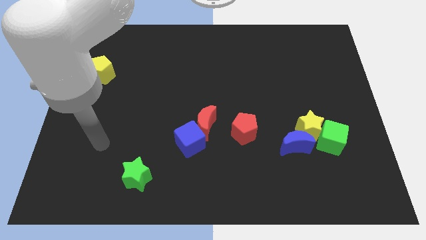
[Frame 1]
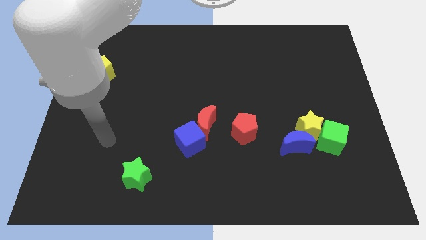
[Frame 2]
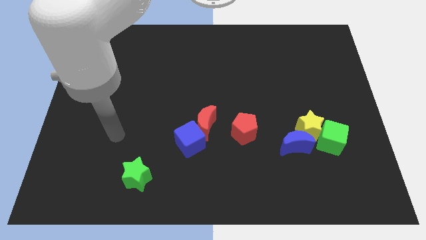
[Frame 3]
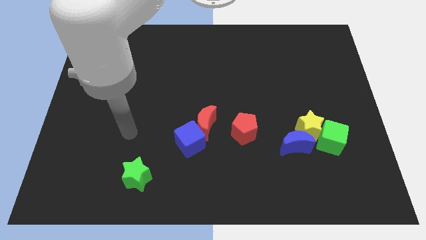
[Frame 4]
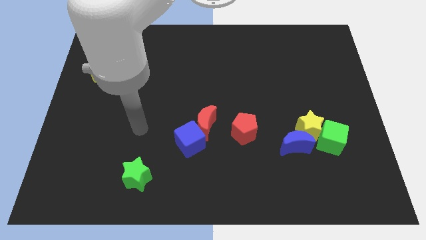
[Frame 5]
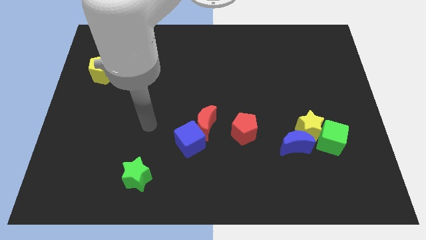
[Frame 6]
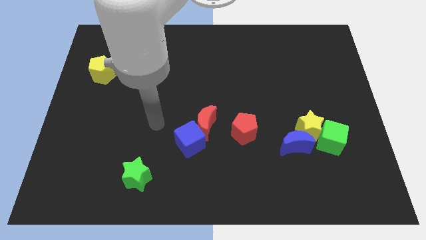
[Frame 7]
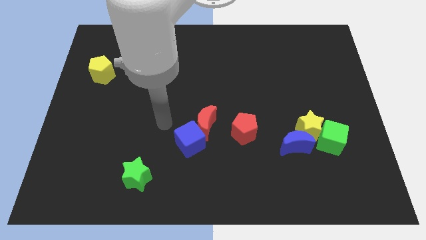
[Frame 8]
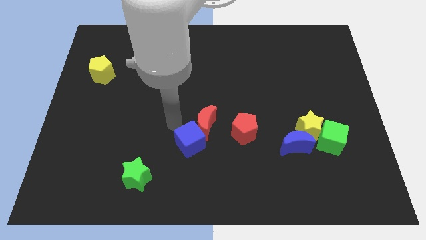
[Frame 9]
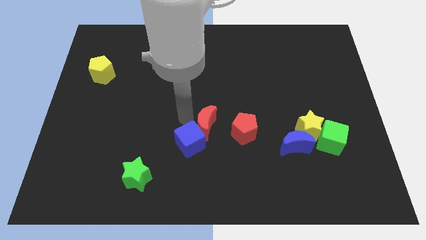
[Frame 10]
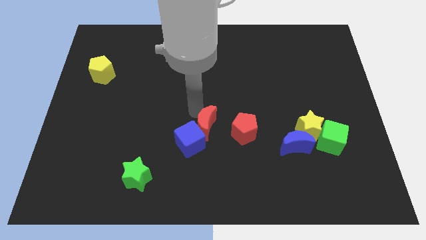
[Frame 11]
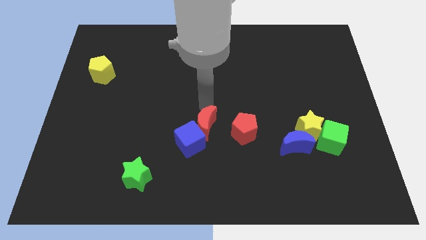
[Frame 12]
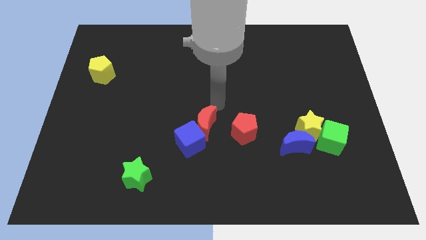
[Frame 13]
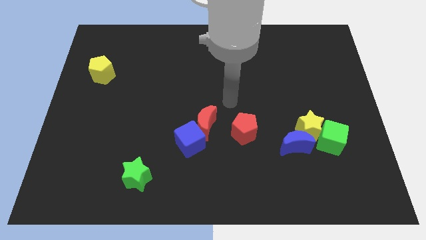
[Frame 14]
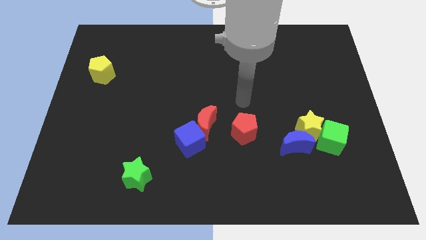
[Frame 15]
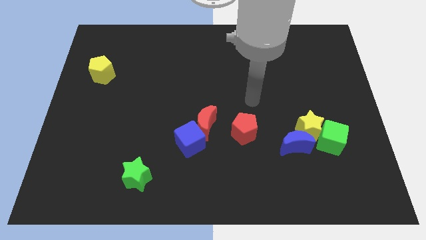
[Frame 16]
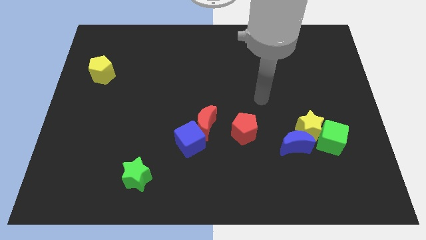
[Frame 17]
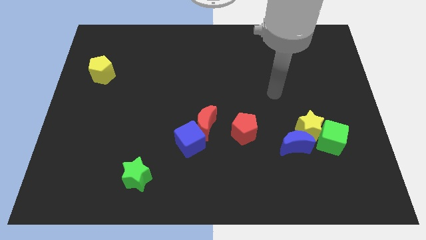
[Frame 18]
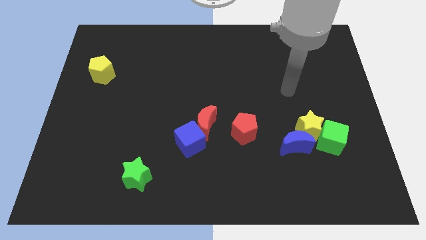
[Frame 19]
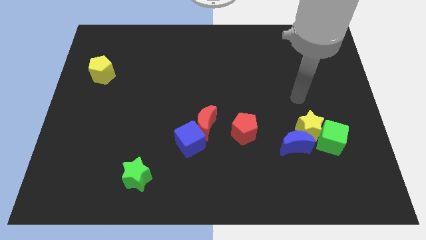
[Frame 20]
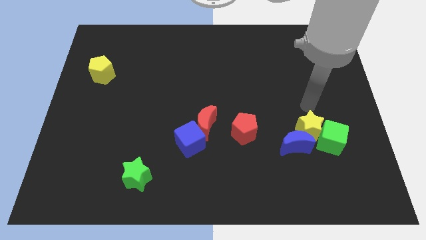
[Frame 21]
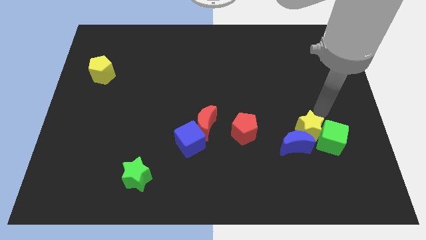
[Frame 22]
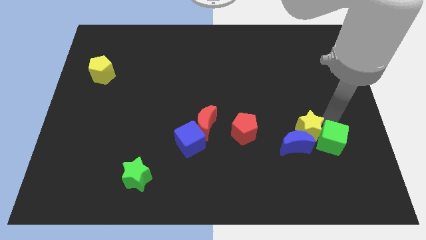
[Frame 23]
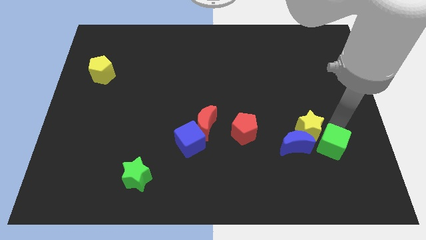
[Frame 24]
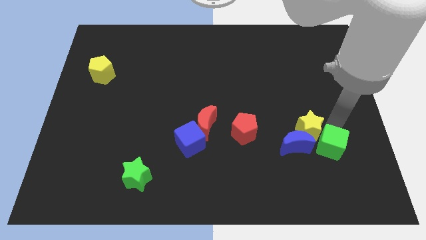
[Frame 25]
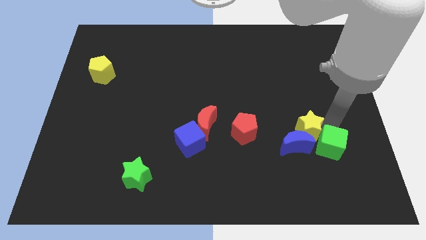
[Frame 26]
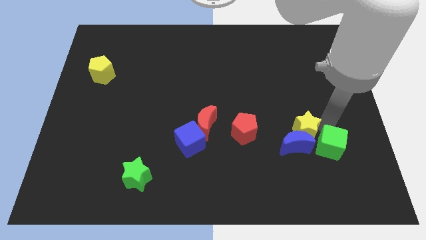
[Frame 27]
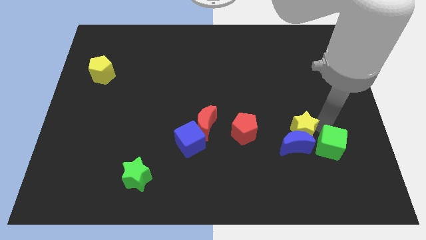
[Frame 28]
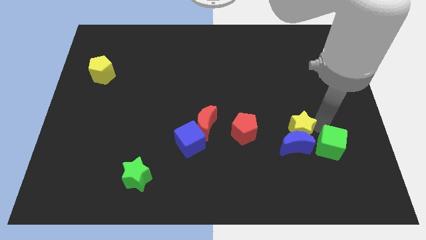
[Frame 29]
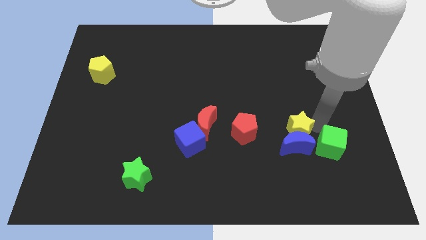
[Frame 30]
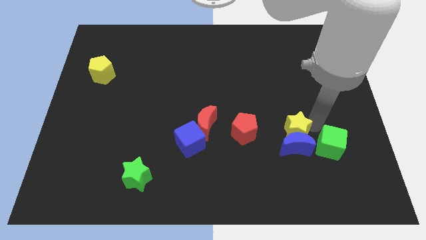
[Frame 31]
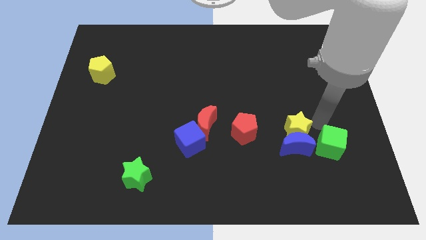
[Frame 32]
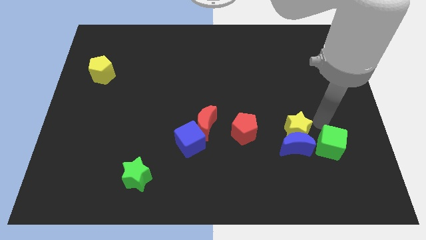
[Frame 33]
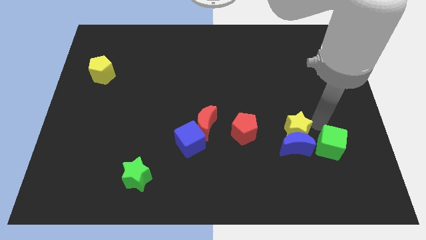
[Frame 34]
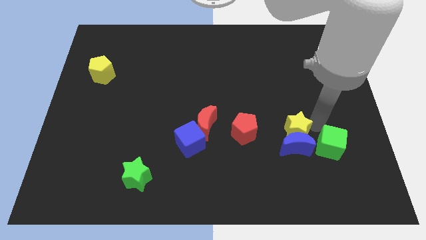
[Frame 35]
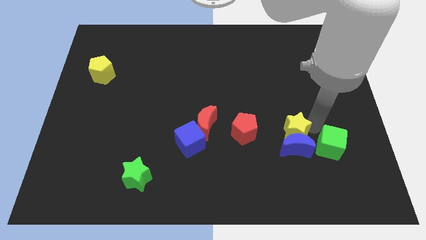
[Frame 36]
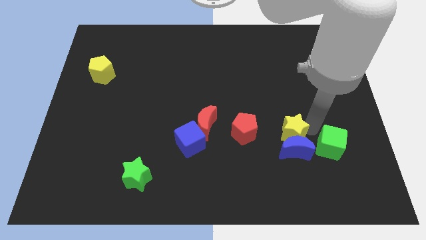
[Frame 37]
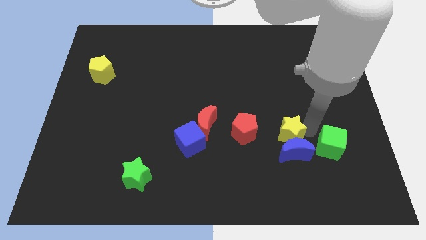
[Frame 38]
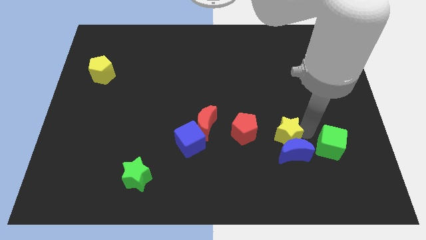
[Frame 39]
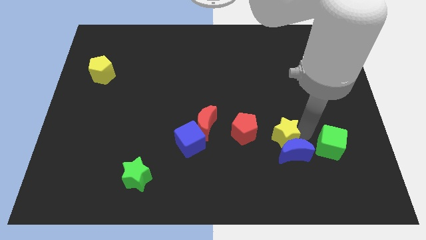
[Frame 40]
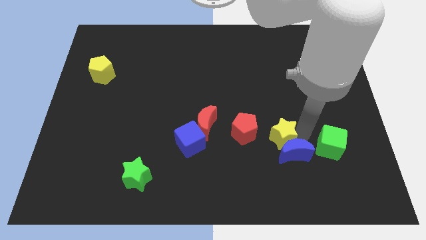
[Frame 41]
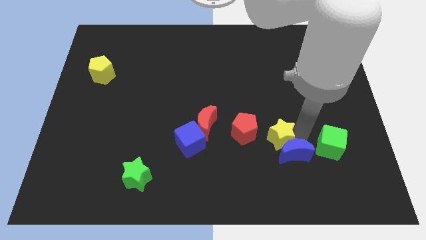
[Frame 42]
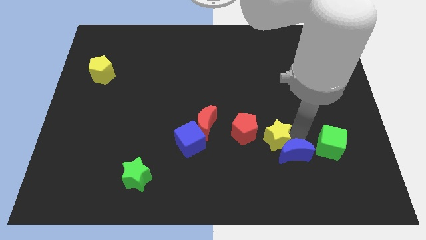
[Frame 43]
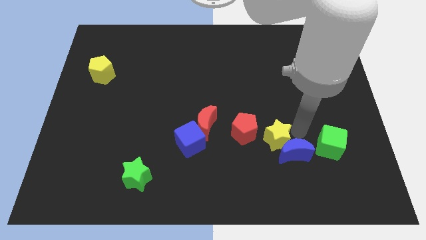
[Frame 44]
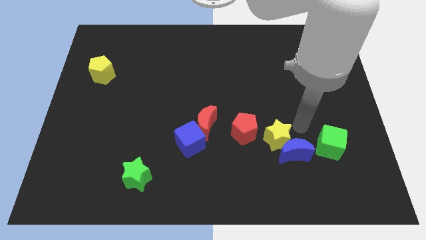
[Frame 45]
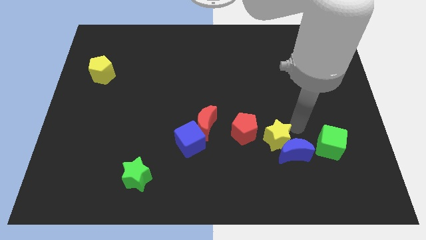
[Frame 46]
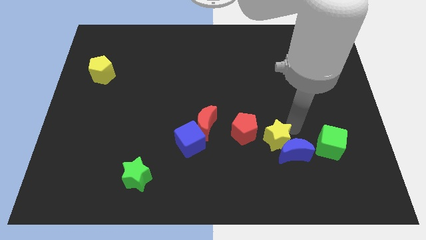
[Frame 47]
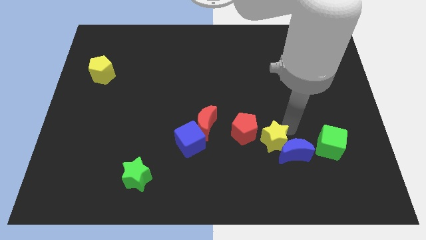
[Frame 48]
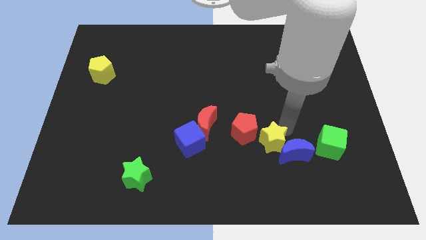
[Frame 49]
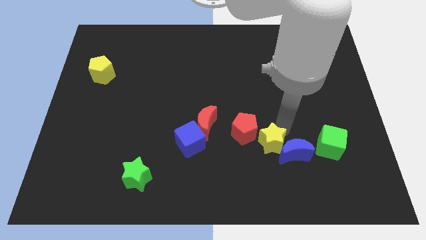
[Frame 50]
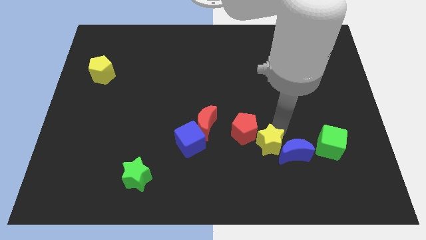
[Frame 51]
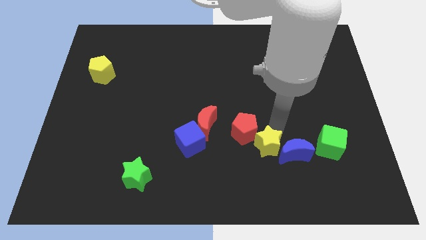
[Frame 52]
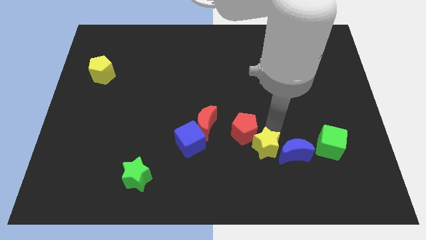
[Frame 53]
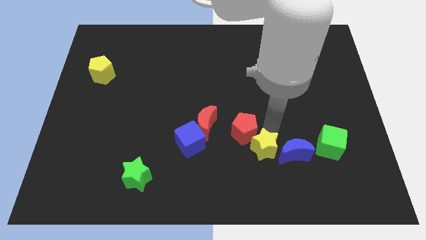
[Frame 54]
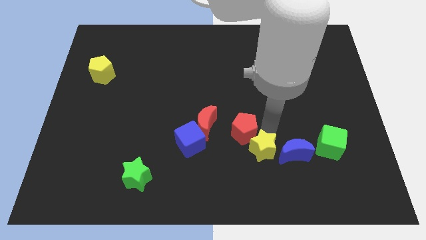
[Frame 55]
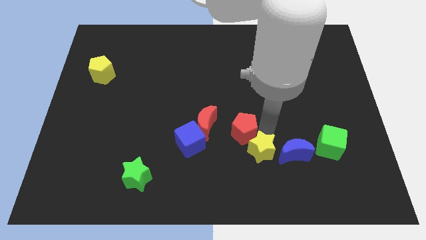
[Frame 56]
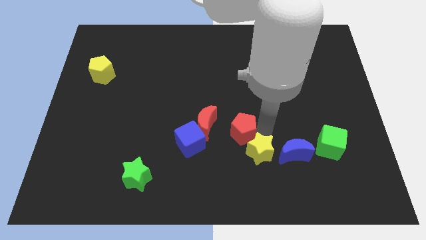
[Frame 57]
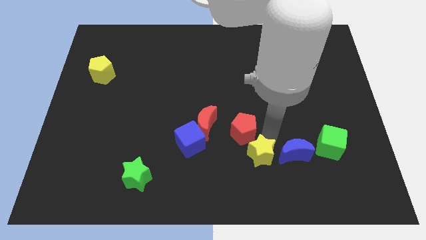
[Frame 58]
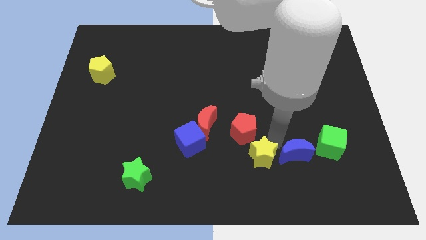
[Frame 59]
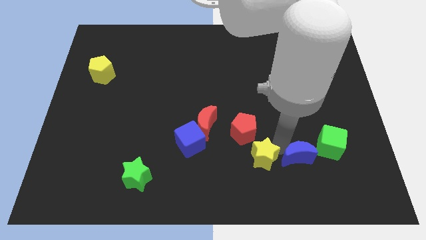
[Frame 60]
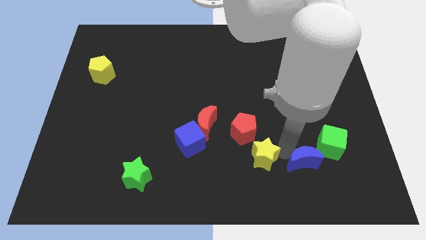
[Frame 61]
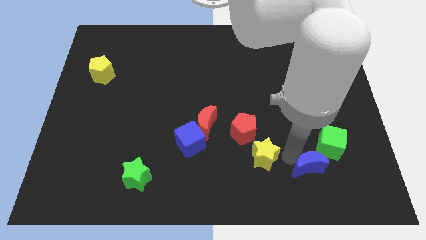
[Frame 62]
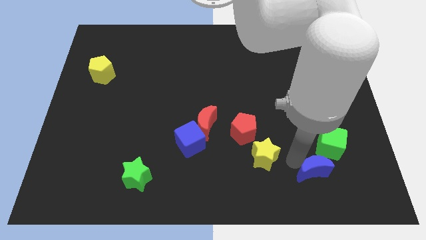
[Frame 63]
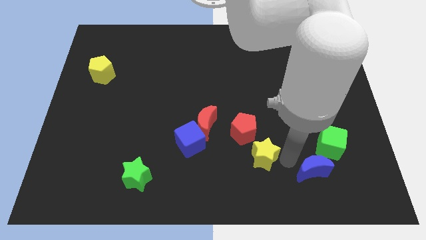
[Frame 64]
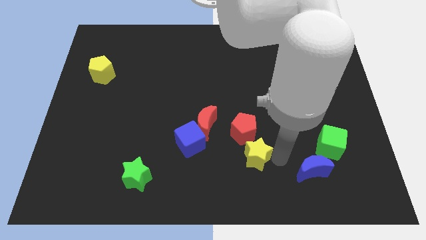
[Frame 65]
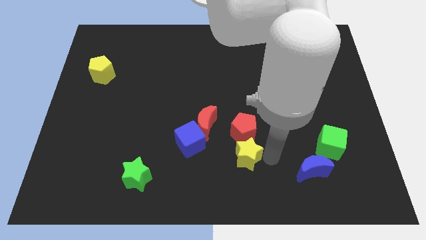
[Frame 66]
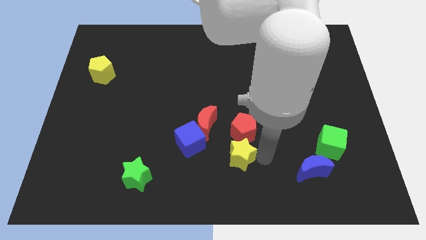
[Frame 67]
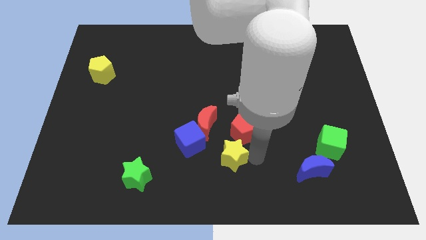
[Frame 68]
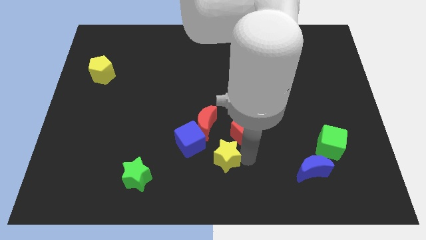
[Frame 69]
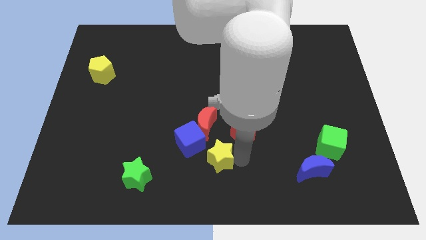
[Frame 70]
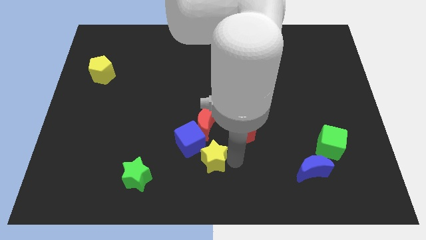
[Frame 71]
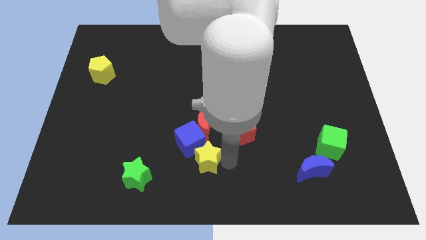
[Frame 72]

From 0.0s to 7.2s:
move the yellow star to the blue cube
